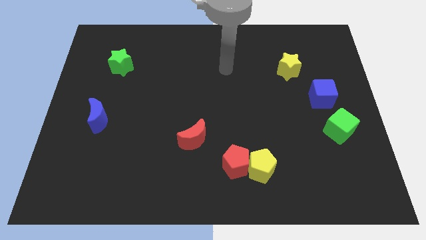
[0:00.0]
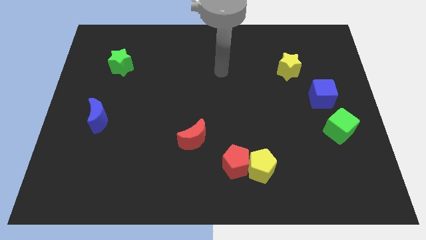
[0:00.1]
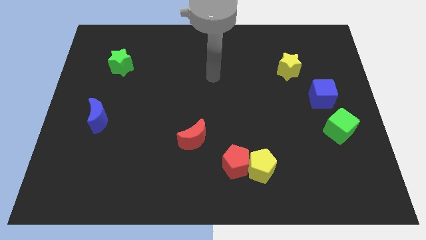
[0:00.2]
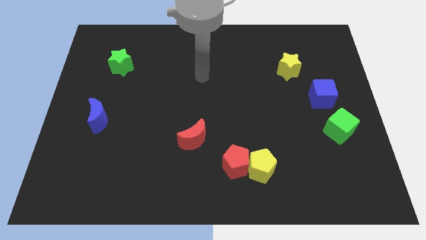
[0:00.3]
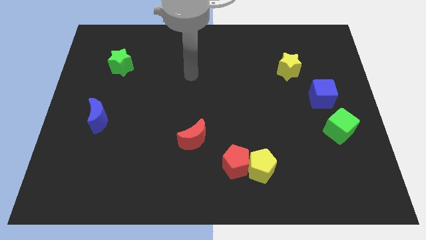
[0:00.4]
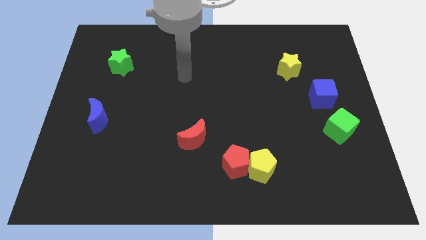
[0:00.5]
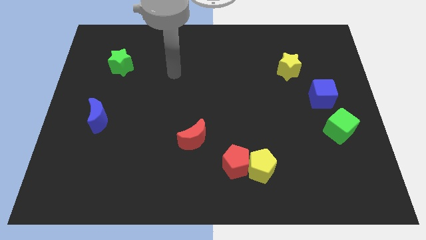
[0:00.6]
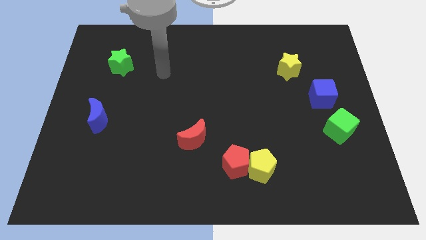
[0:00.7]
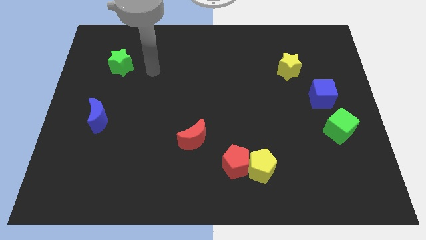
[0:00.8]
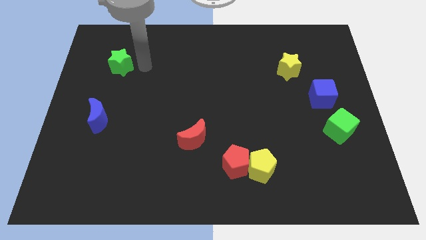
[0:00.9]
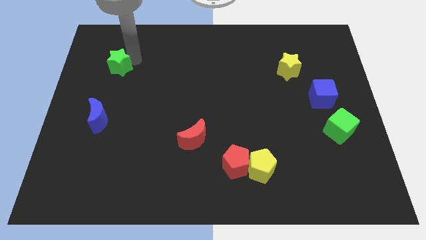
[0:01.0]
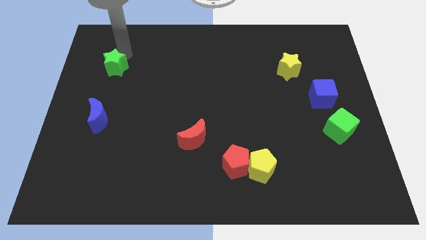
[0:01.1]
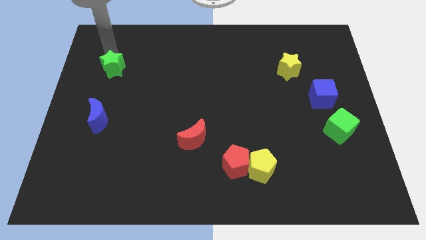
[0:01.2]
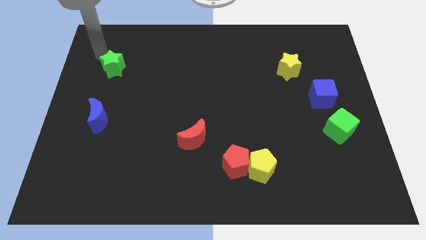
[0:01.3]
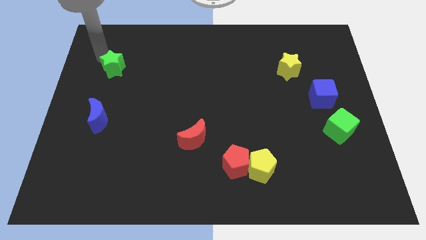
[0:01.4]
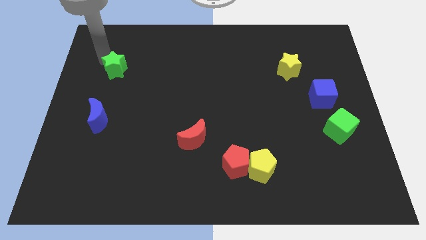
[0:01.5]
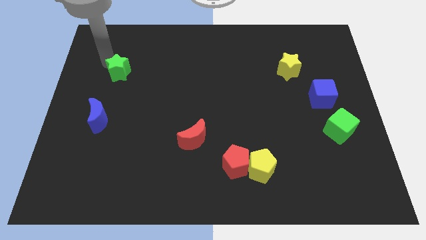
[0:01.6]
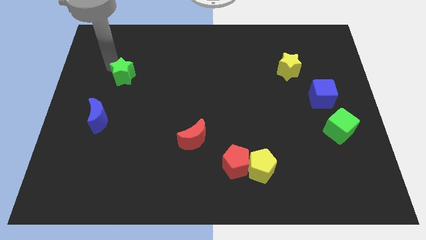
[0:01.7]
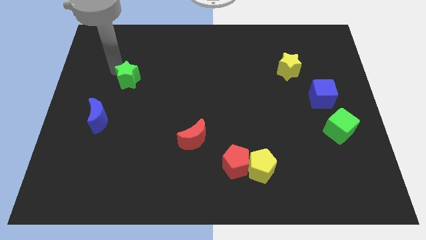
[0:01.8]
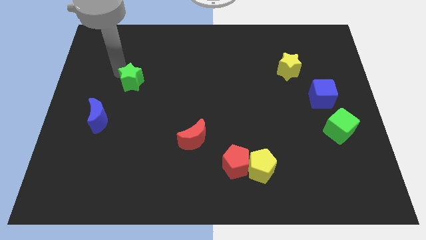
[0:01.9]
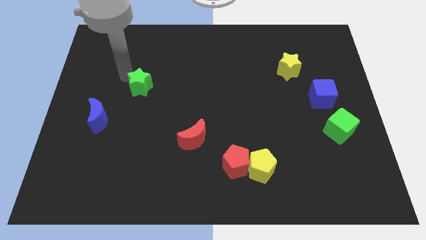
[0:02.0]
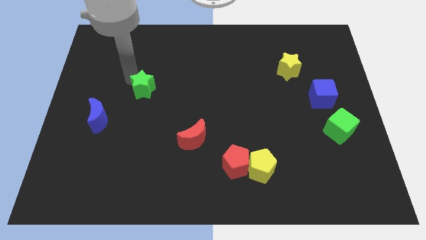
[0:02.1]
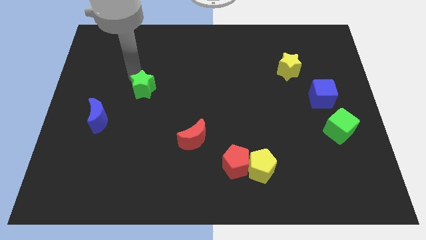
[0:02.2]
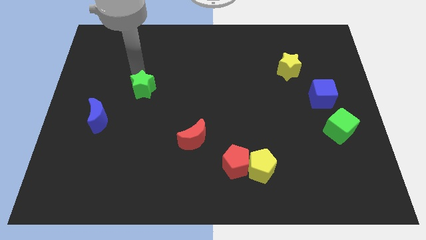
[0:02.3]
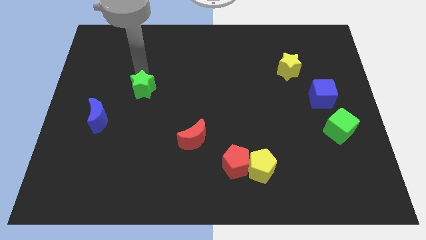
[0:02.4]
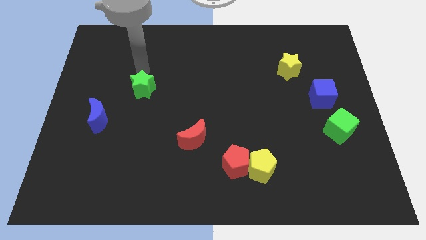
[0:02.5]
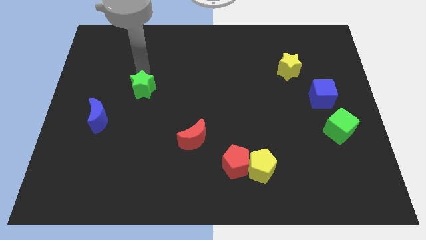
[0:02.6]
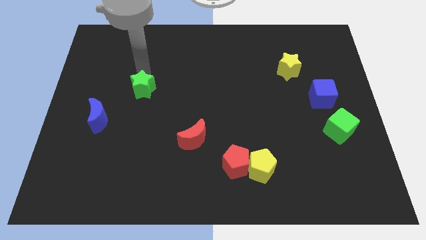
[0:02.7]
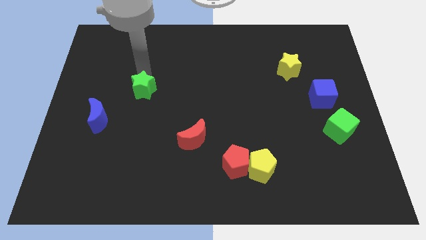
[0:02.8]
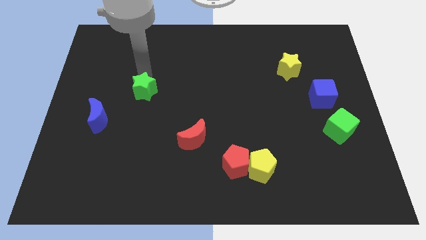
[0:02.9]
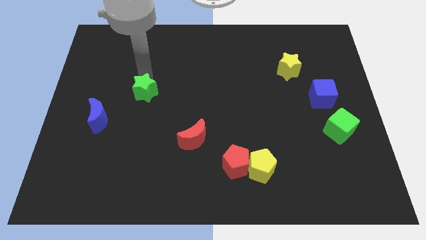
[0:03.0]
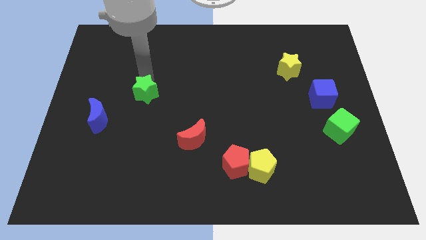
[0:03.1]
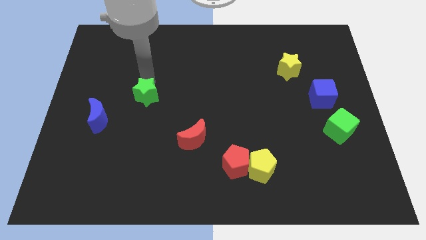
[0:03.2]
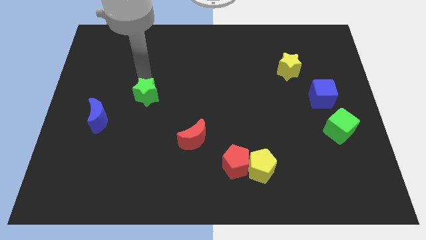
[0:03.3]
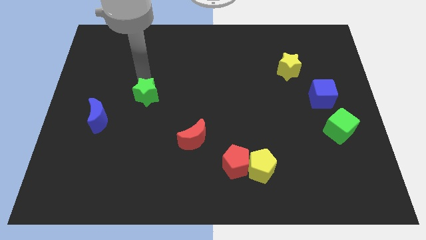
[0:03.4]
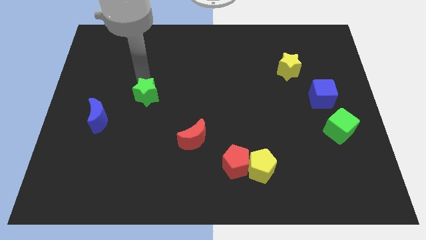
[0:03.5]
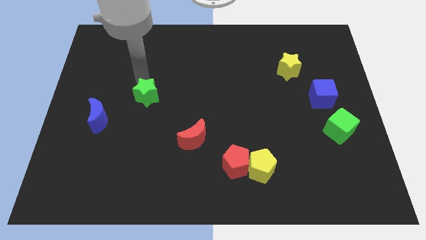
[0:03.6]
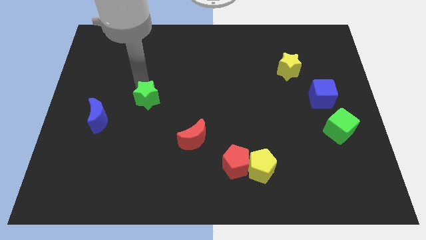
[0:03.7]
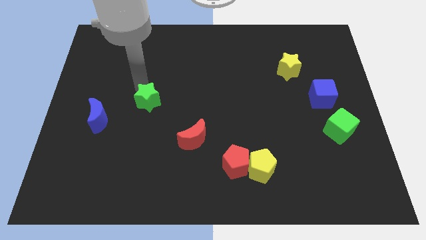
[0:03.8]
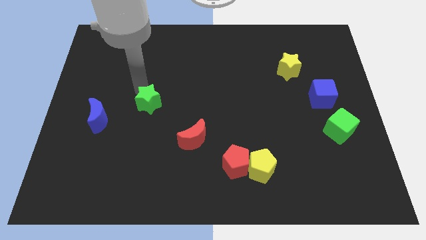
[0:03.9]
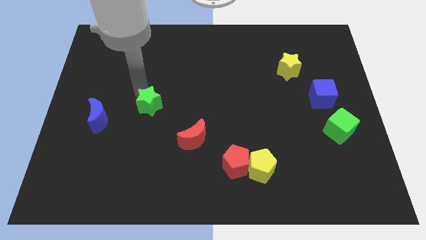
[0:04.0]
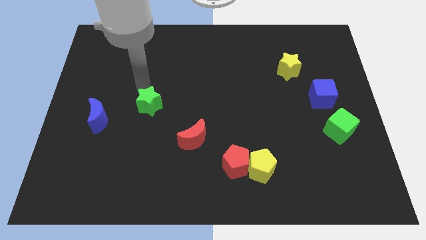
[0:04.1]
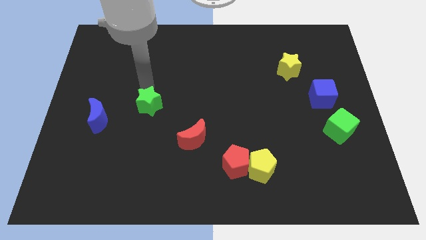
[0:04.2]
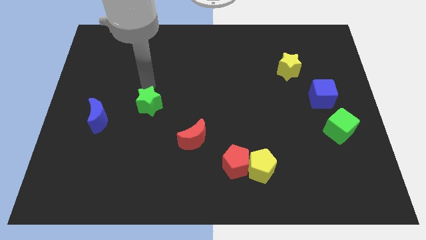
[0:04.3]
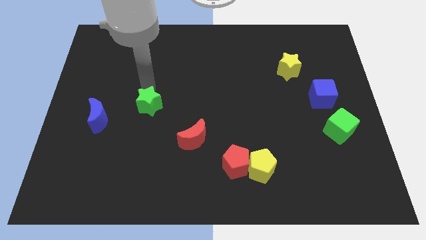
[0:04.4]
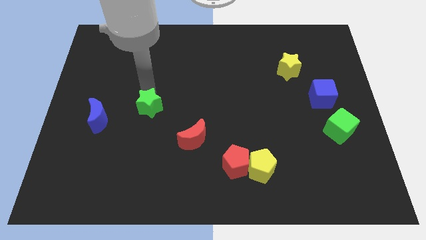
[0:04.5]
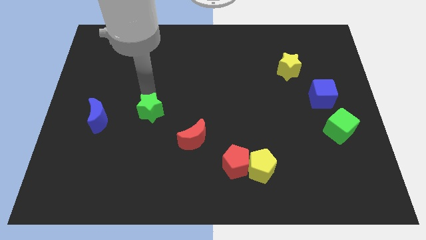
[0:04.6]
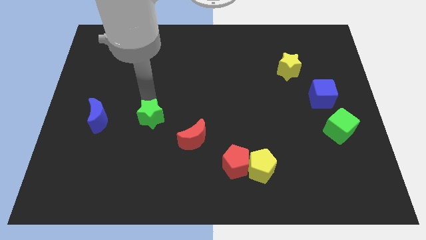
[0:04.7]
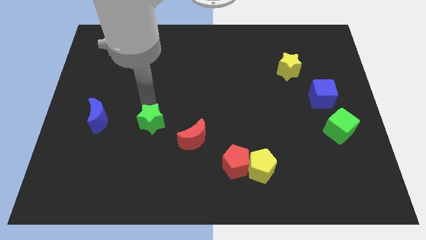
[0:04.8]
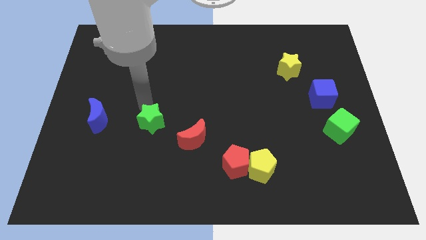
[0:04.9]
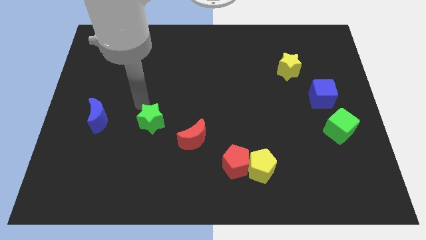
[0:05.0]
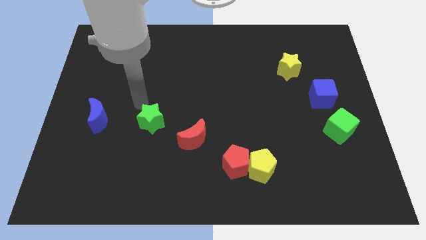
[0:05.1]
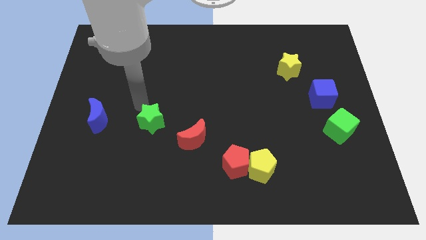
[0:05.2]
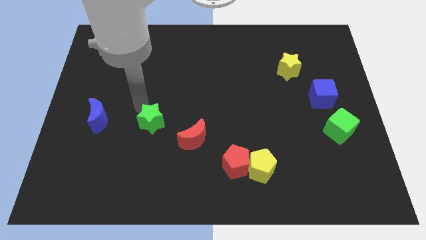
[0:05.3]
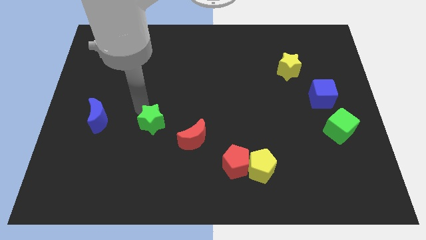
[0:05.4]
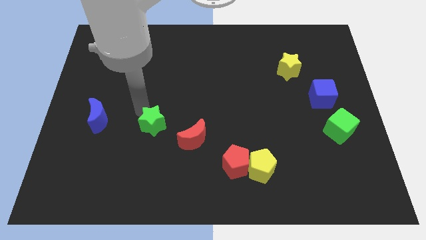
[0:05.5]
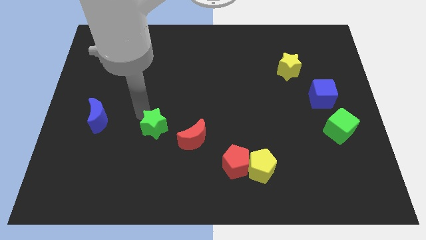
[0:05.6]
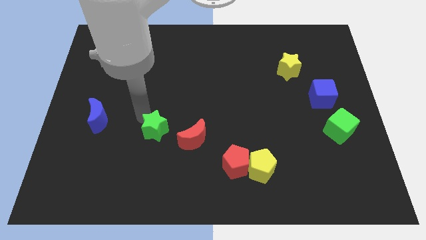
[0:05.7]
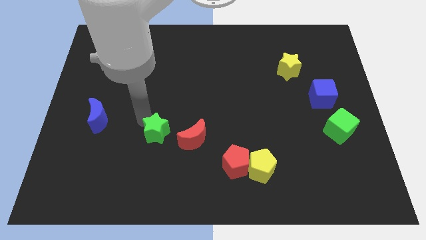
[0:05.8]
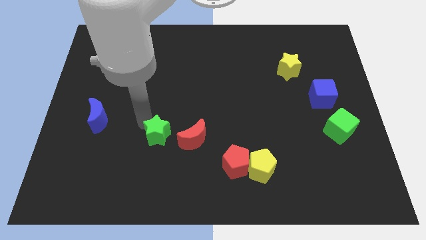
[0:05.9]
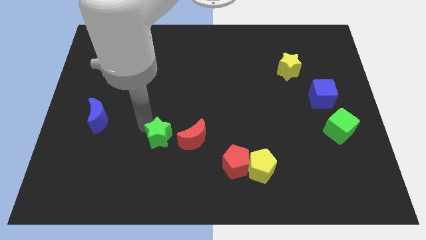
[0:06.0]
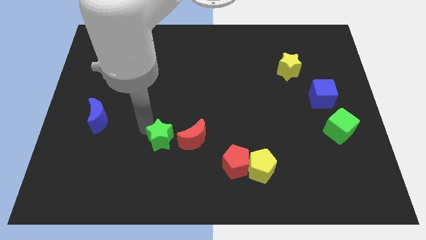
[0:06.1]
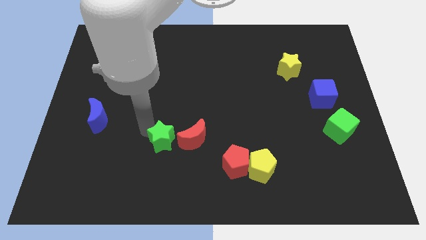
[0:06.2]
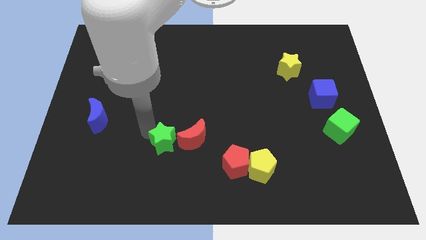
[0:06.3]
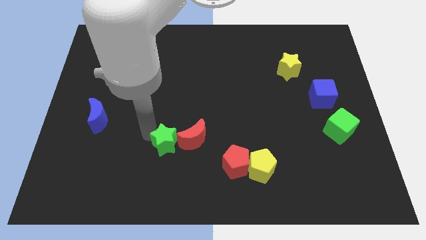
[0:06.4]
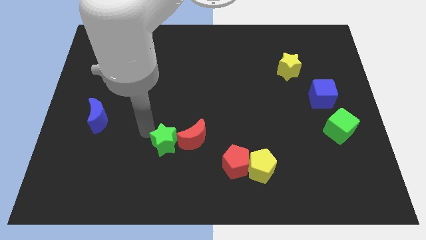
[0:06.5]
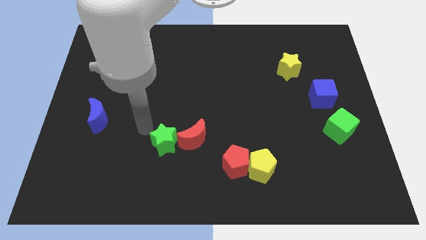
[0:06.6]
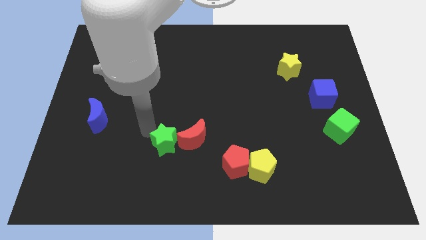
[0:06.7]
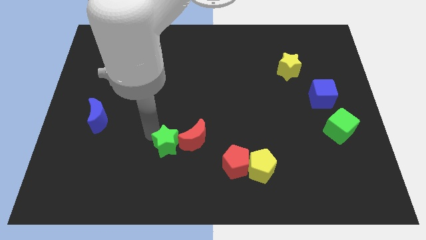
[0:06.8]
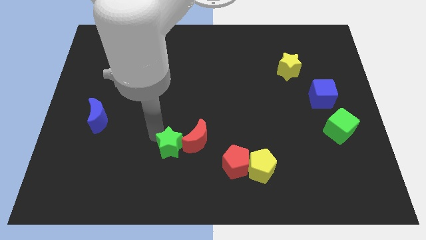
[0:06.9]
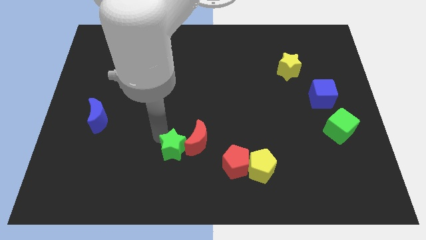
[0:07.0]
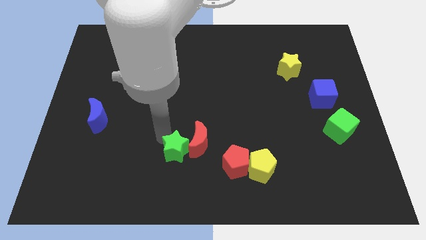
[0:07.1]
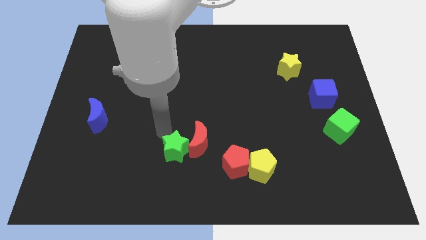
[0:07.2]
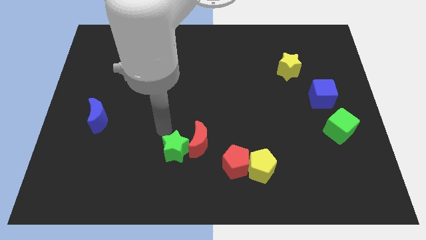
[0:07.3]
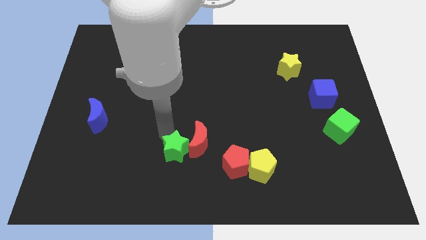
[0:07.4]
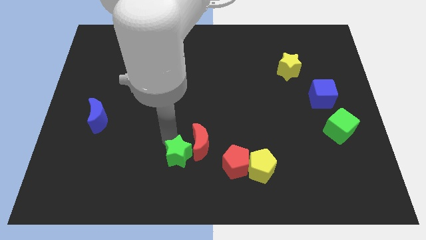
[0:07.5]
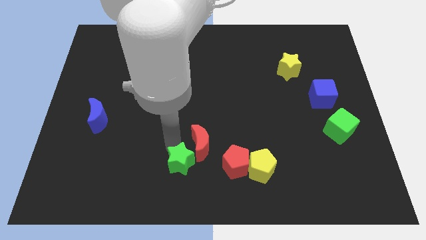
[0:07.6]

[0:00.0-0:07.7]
slide the green star to the bottom side
